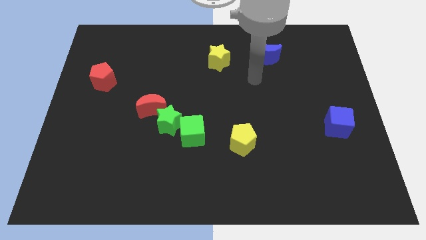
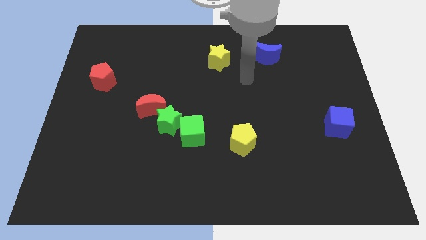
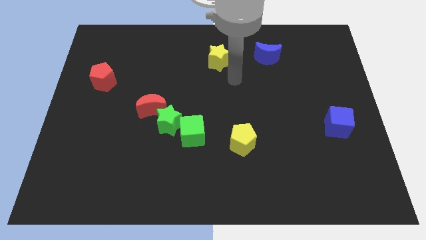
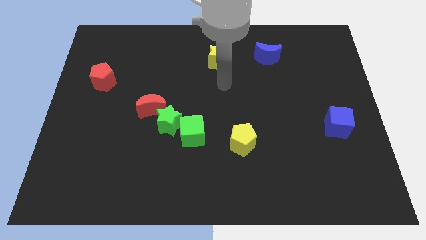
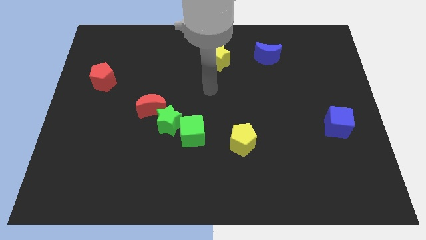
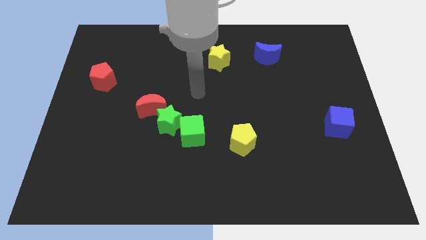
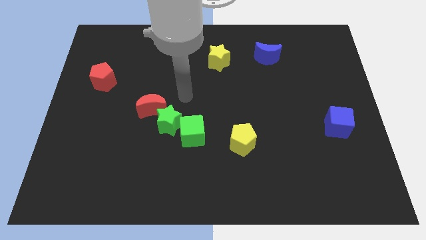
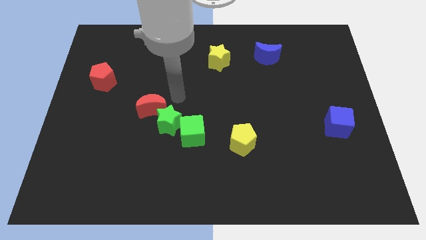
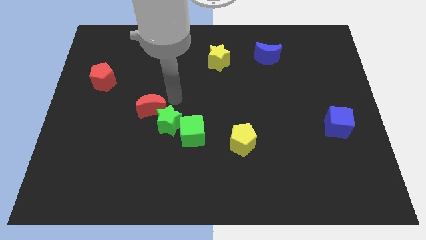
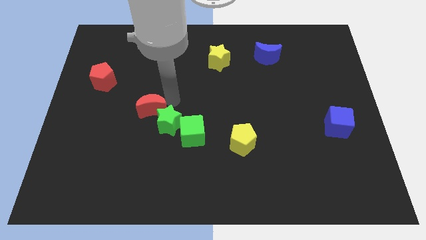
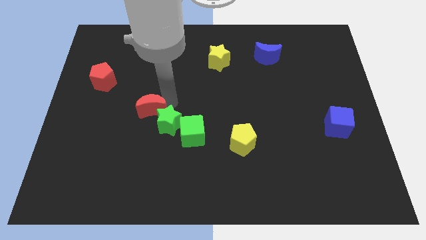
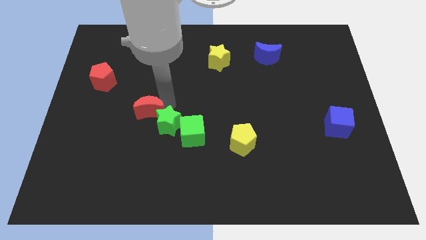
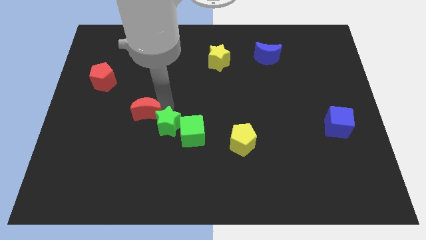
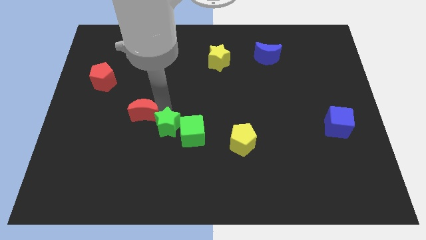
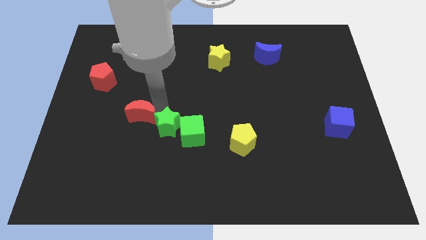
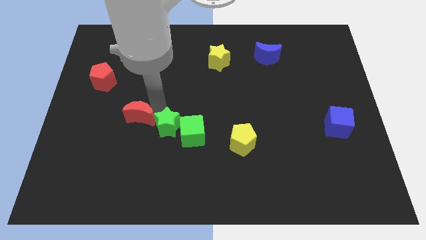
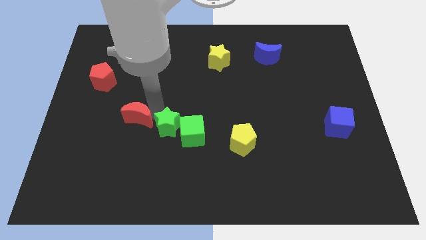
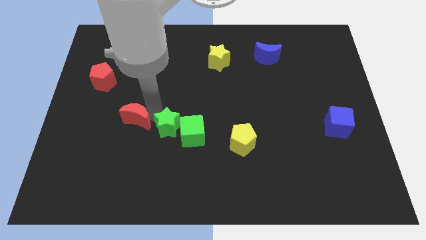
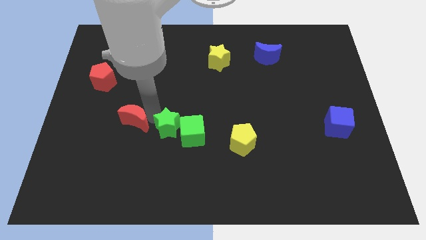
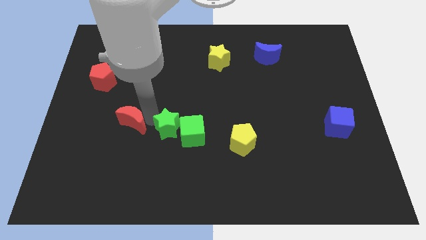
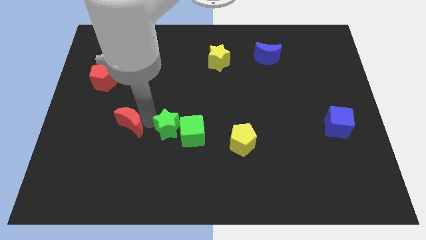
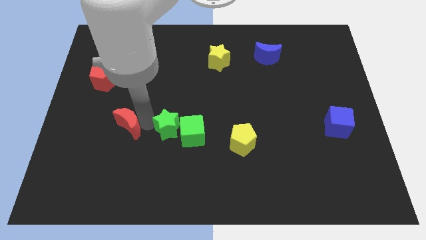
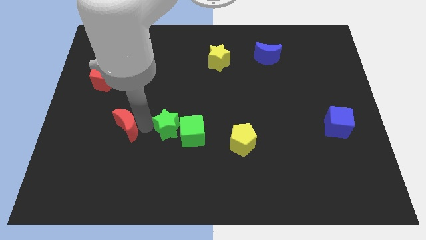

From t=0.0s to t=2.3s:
move the red moon diagonally down and to the left a little

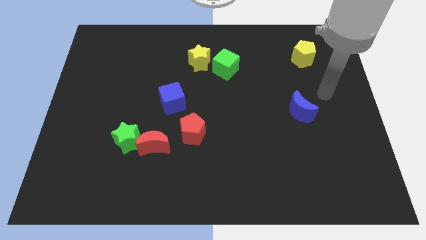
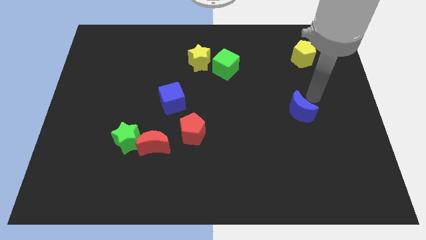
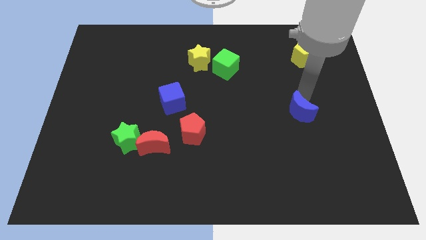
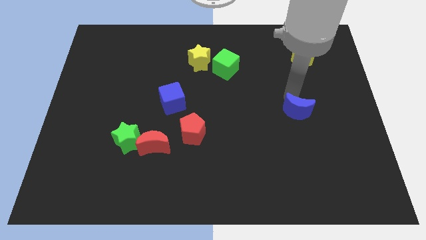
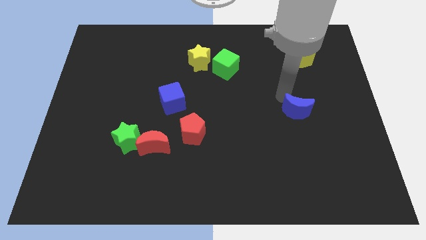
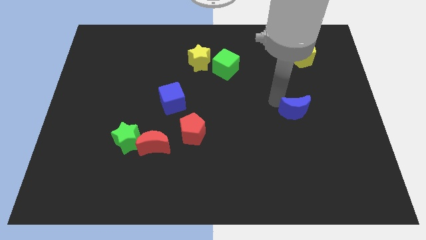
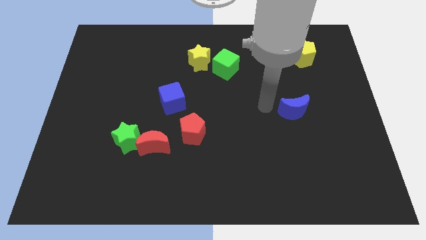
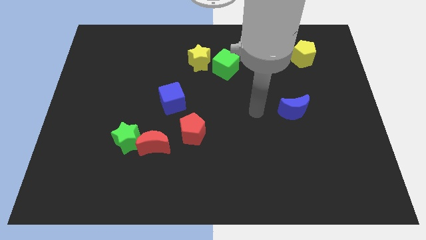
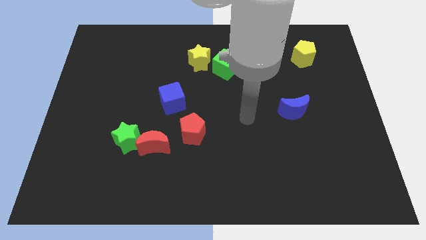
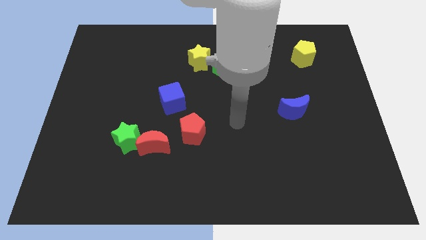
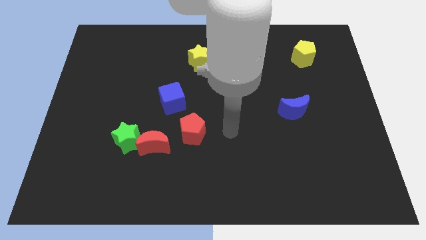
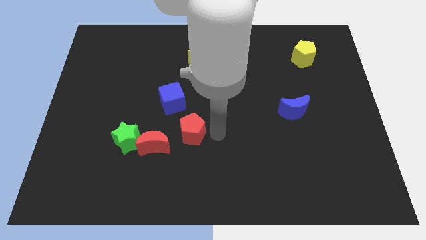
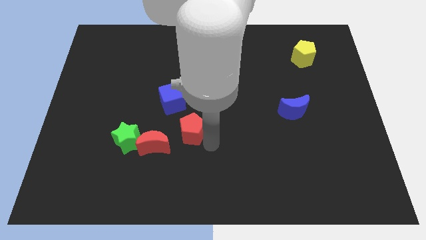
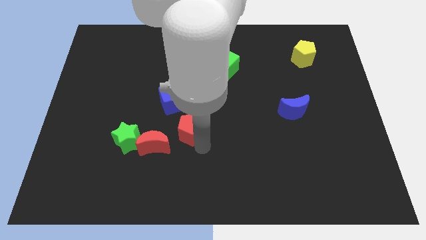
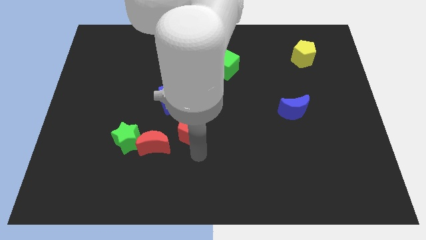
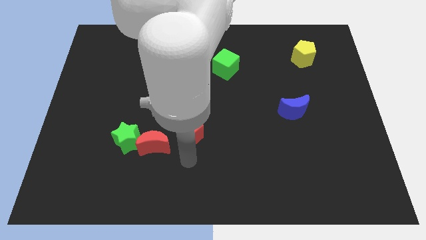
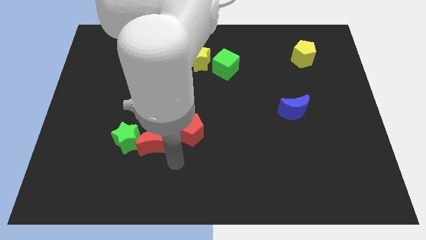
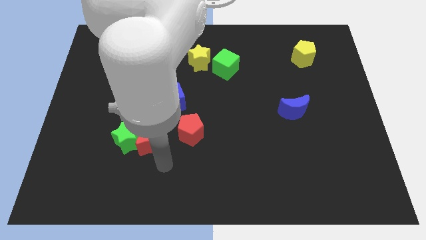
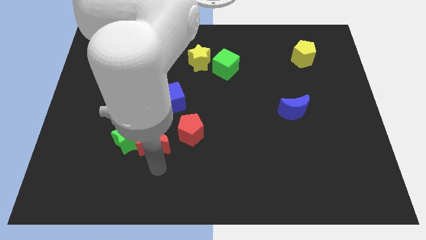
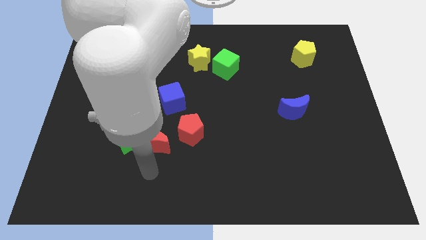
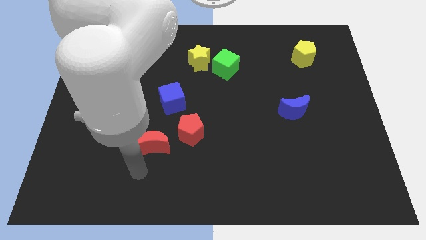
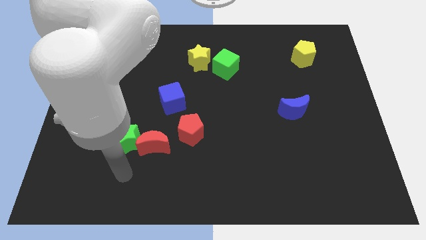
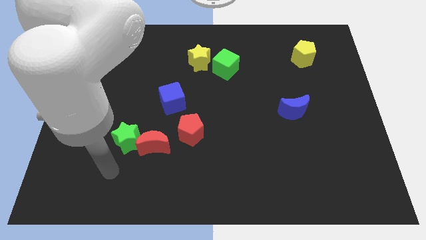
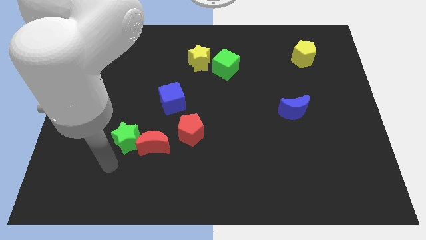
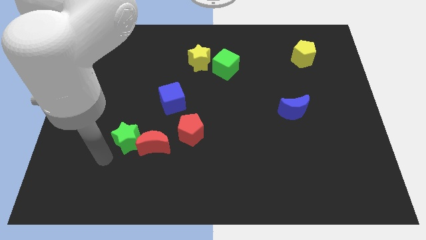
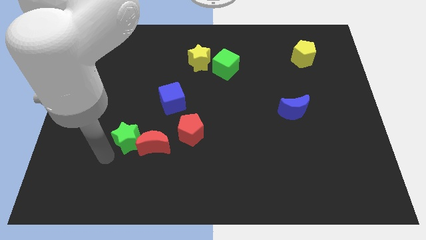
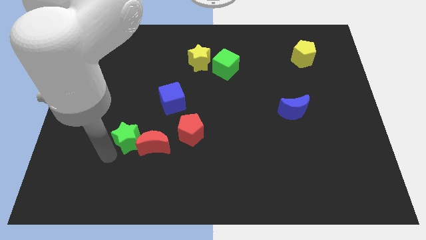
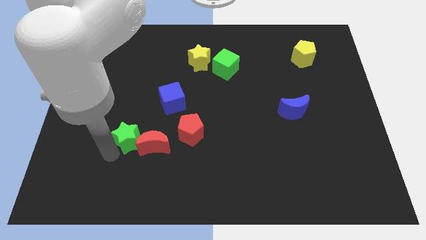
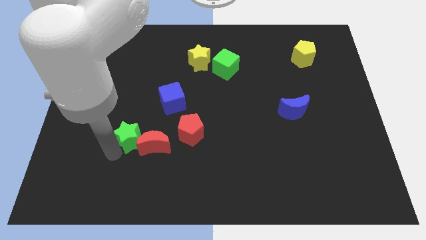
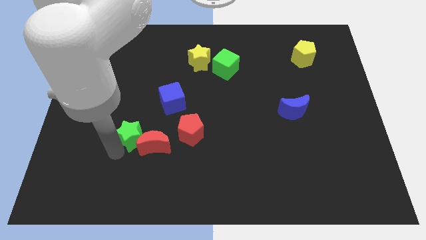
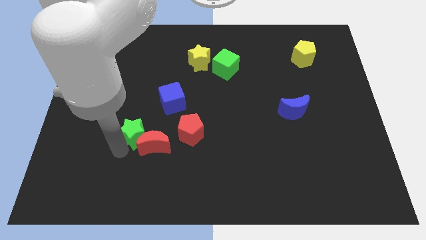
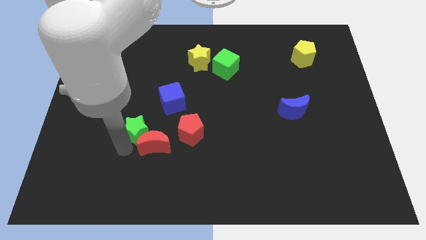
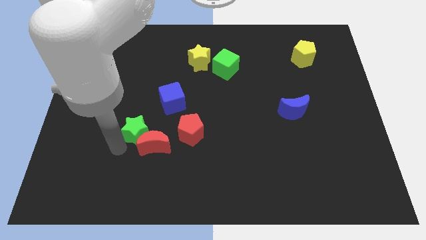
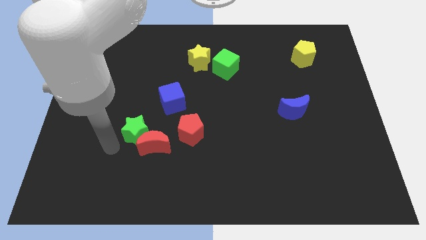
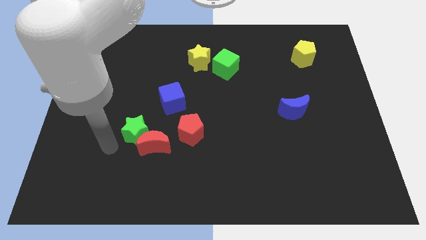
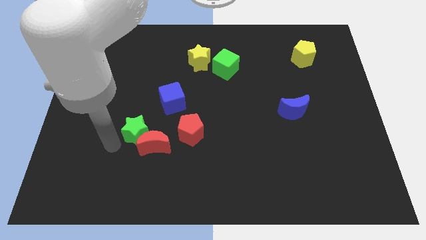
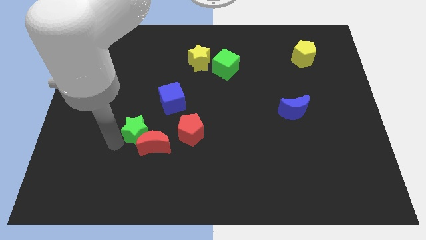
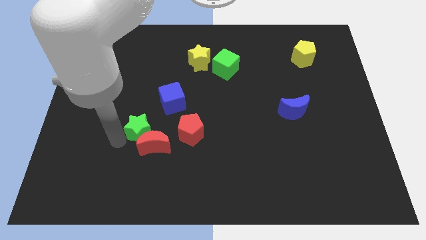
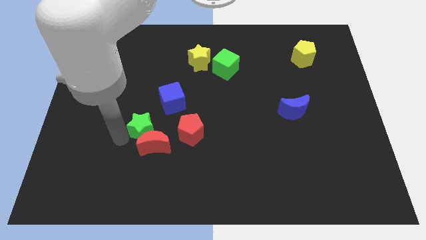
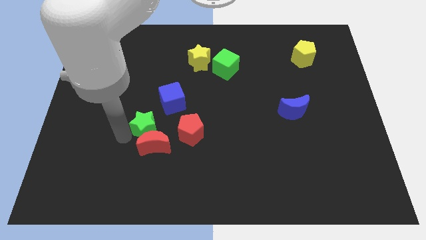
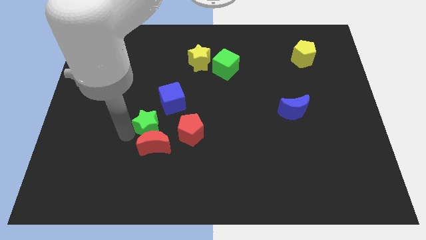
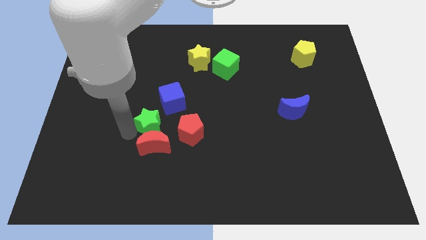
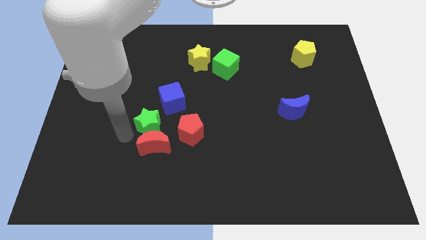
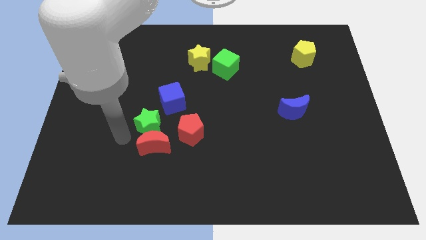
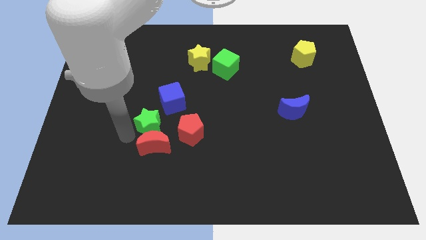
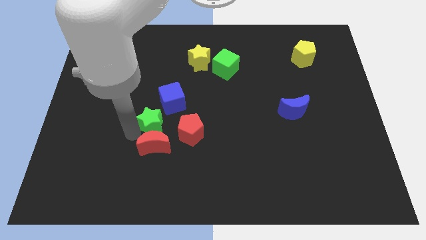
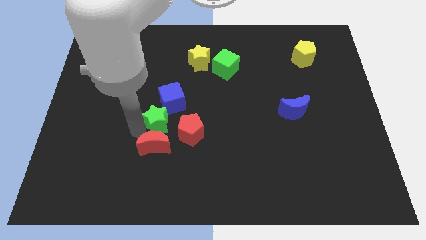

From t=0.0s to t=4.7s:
slide the green star a bit diagonally upwards and right

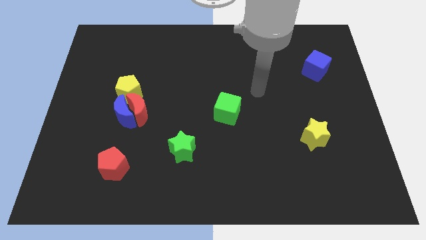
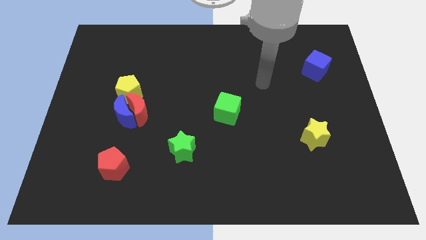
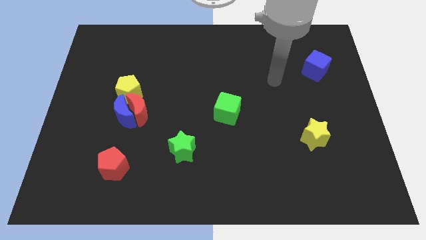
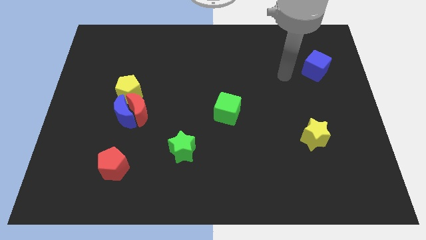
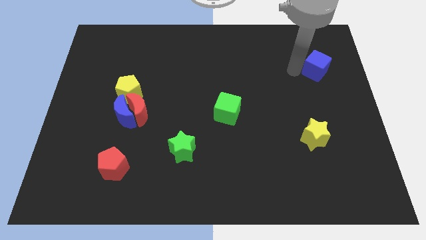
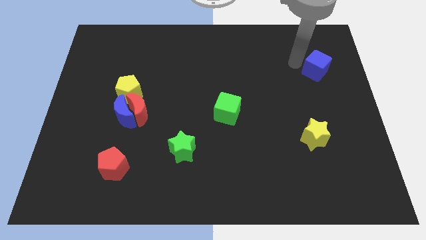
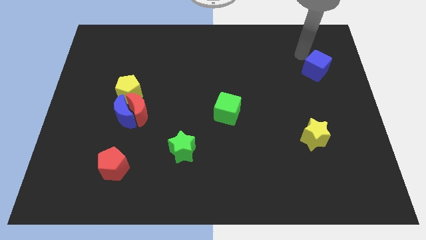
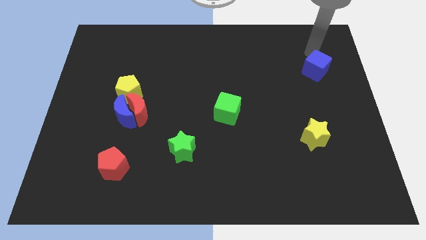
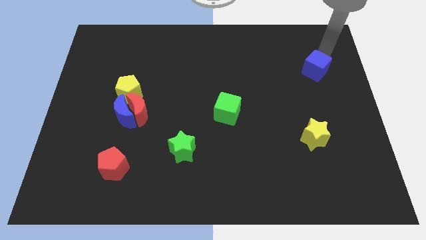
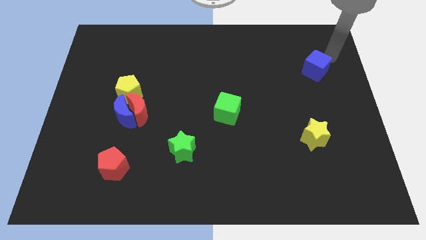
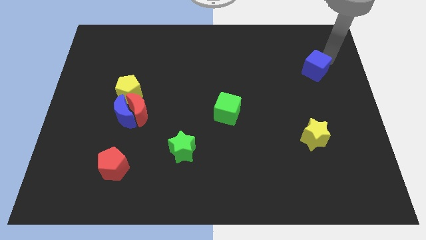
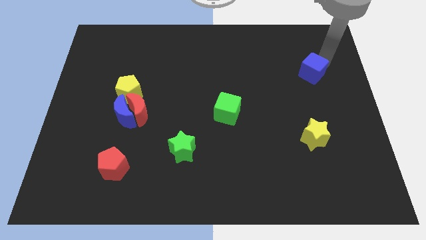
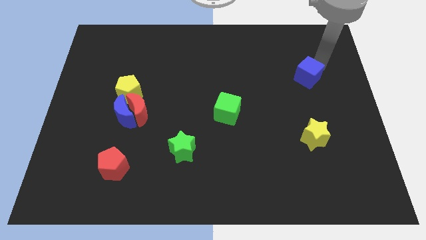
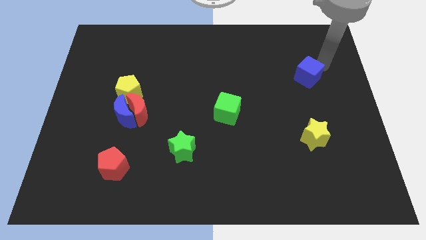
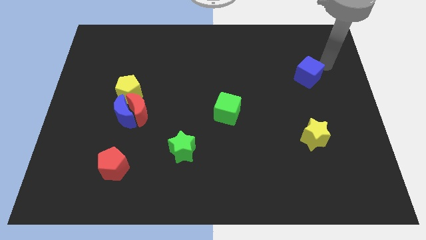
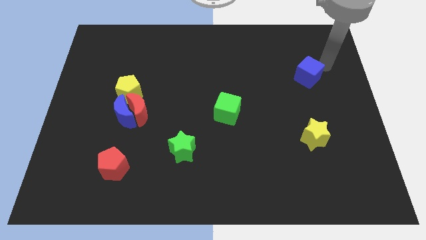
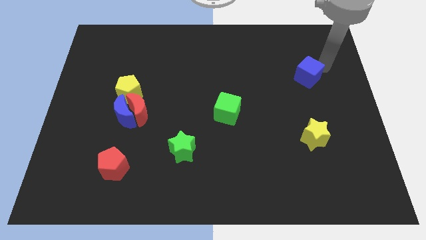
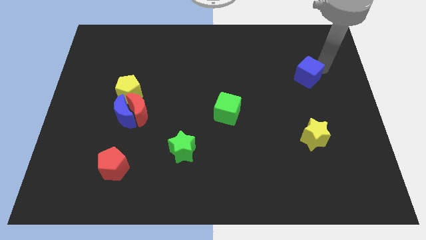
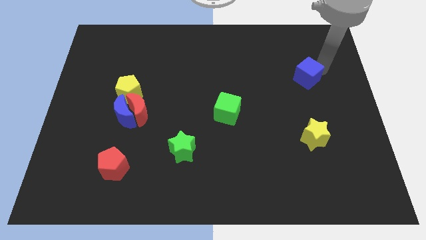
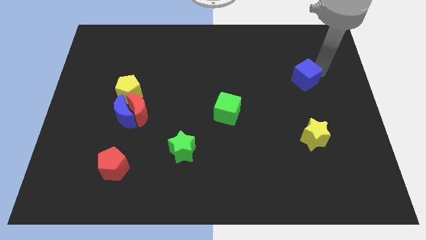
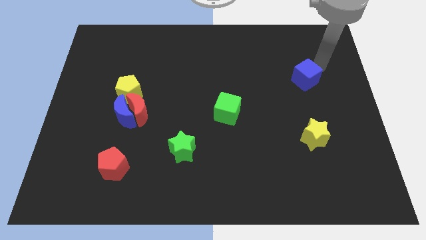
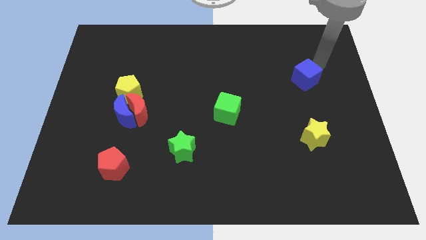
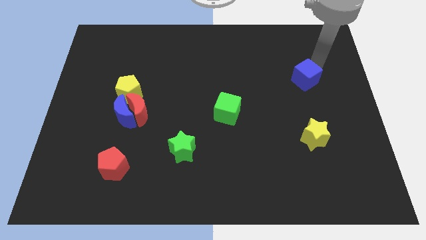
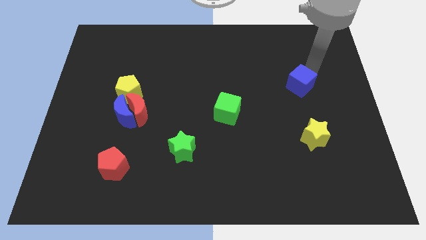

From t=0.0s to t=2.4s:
push the blue cube downwards and to the left somewhat
